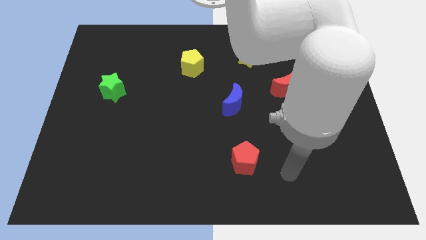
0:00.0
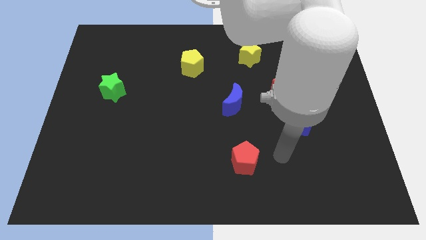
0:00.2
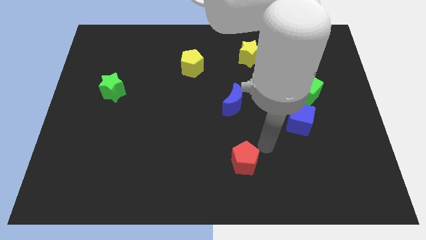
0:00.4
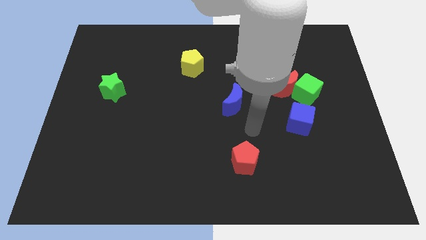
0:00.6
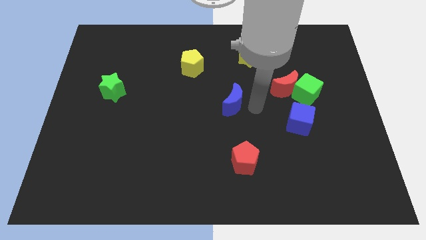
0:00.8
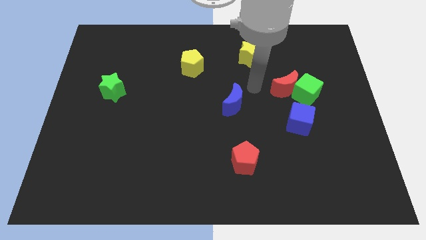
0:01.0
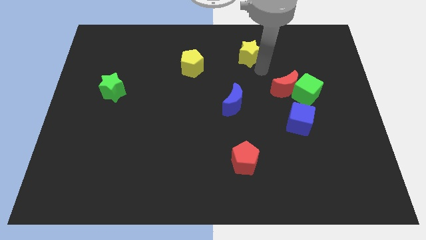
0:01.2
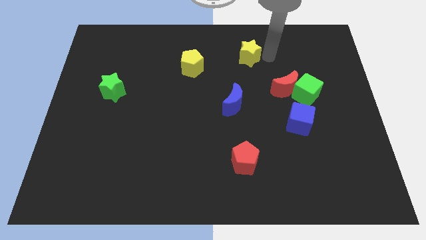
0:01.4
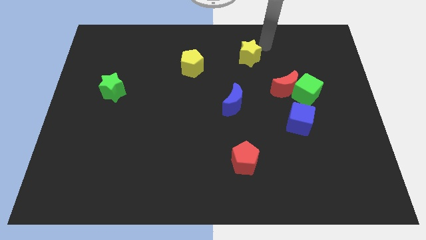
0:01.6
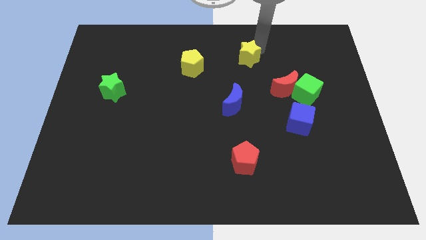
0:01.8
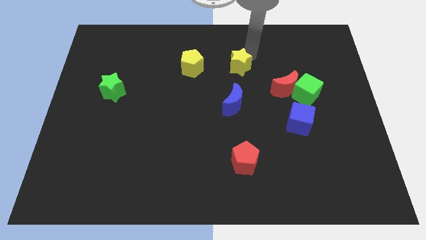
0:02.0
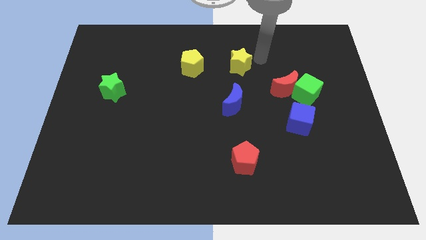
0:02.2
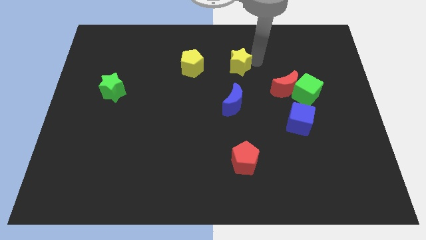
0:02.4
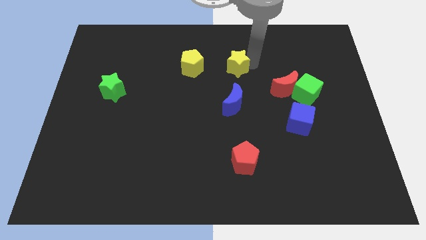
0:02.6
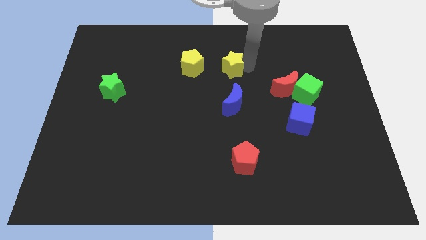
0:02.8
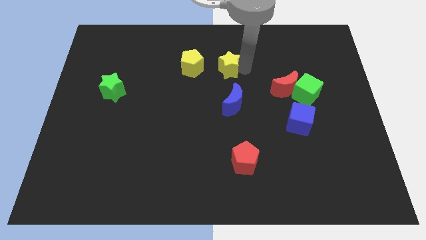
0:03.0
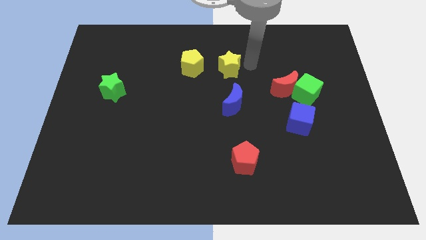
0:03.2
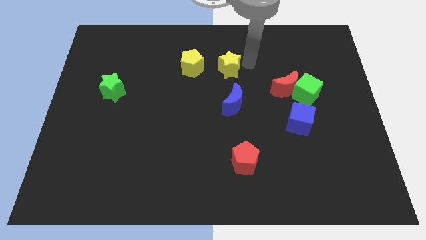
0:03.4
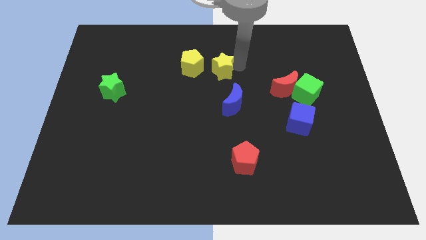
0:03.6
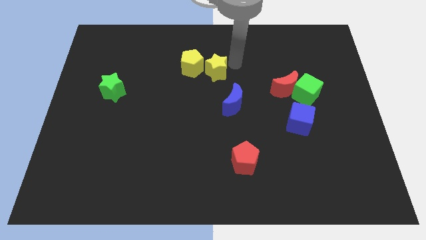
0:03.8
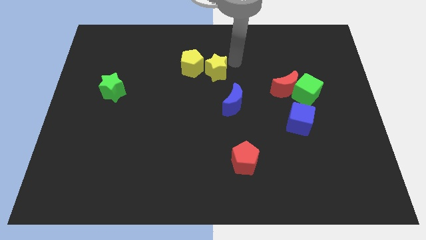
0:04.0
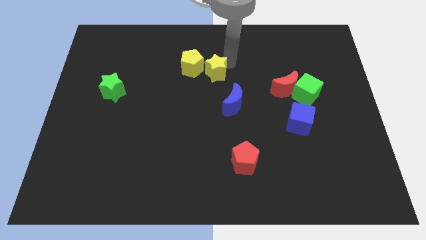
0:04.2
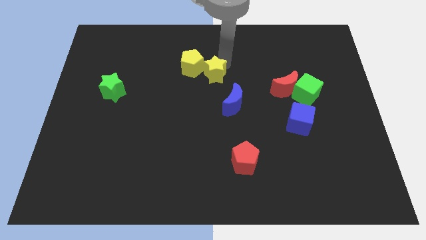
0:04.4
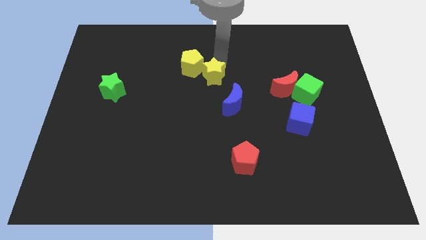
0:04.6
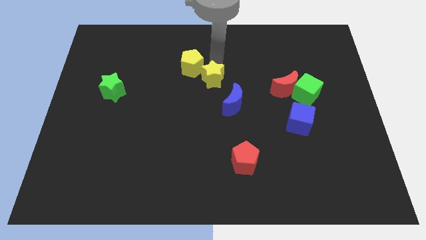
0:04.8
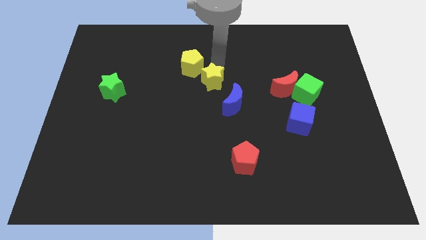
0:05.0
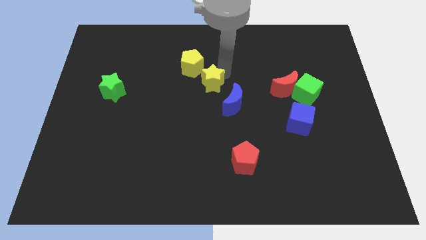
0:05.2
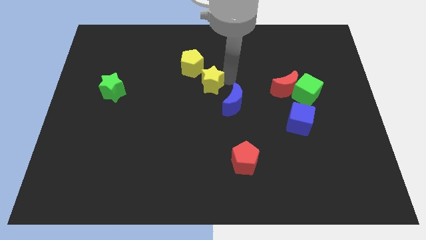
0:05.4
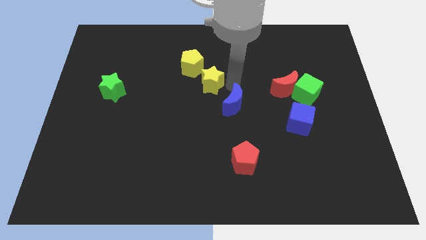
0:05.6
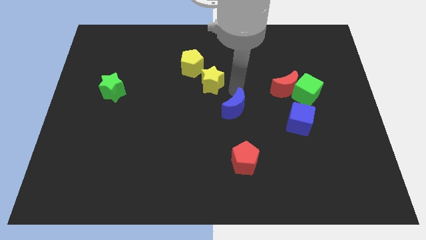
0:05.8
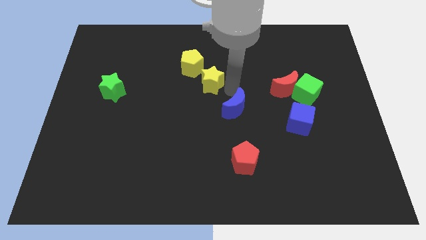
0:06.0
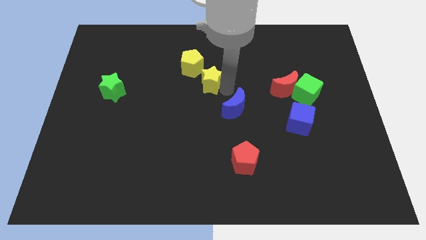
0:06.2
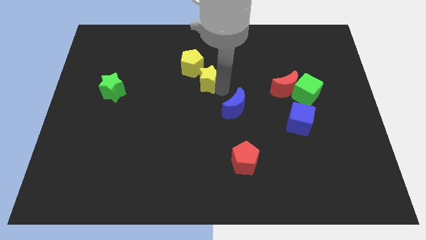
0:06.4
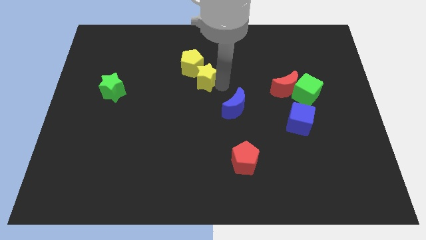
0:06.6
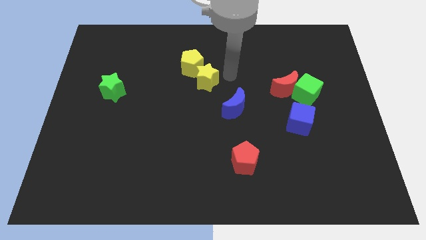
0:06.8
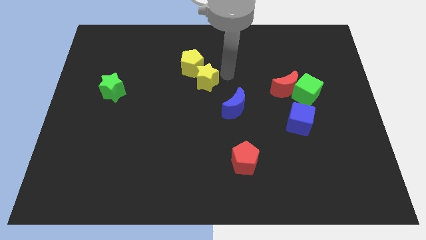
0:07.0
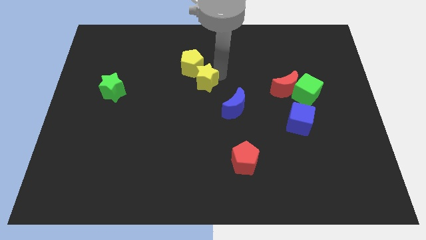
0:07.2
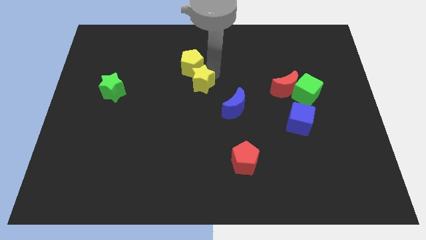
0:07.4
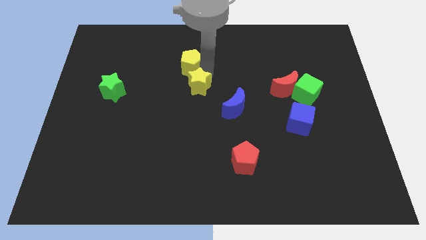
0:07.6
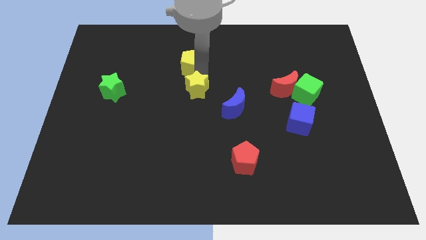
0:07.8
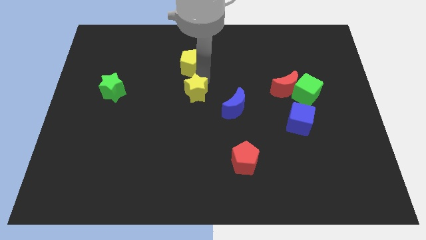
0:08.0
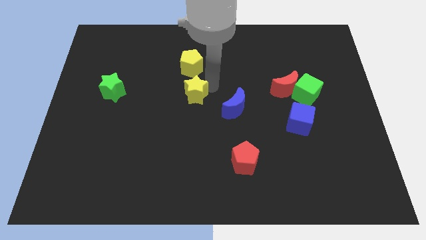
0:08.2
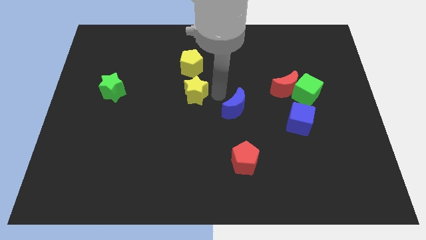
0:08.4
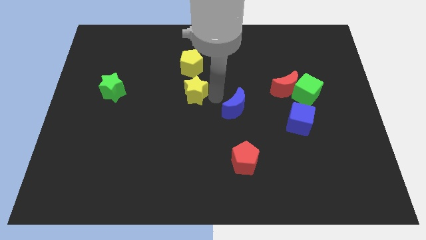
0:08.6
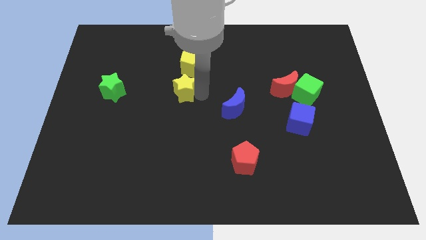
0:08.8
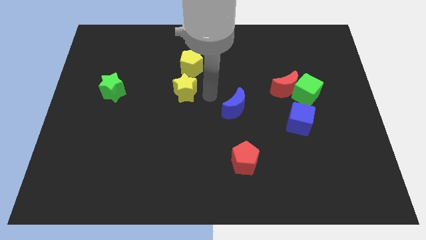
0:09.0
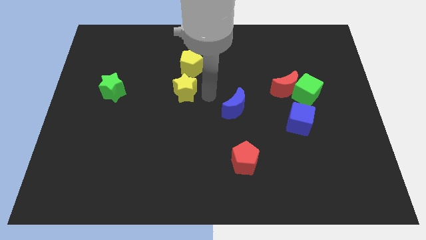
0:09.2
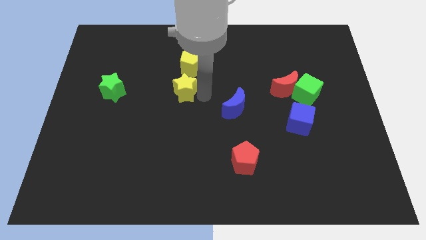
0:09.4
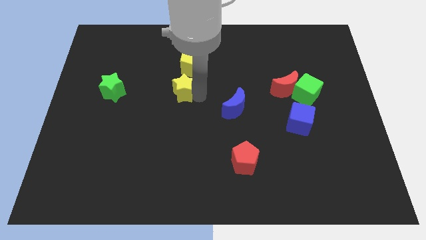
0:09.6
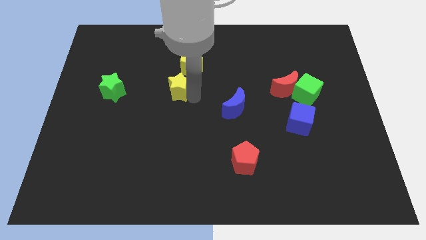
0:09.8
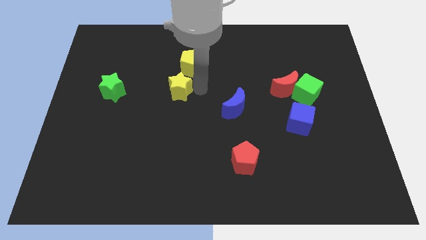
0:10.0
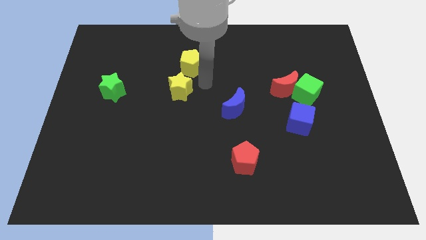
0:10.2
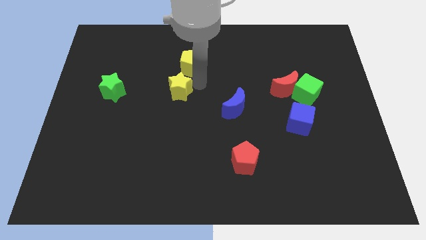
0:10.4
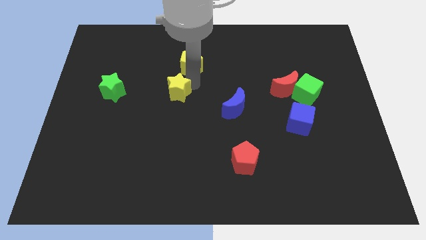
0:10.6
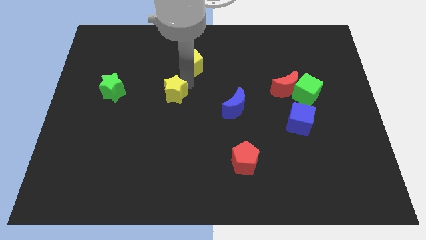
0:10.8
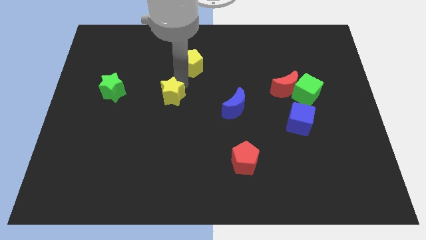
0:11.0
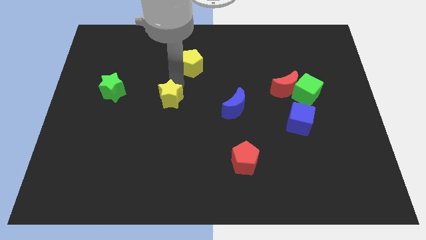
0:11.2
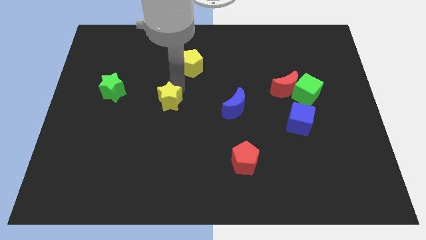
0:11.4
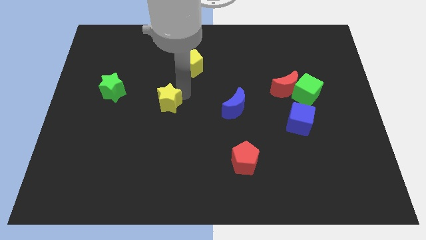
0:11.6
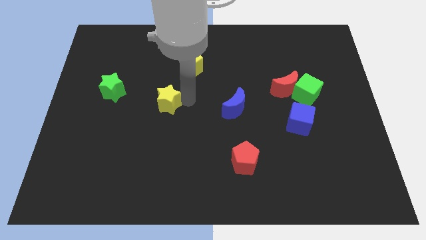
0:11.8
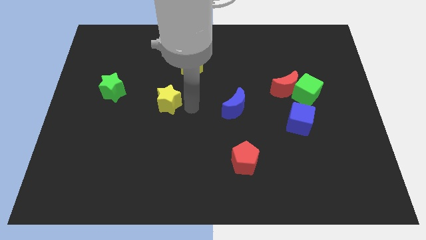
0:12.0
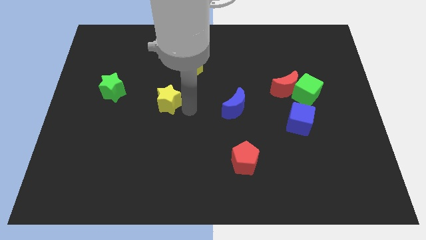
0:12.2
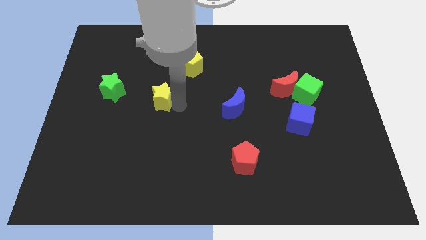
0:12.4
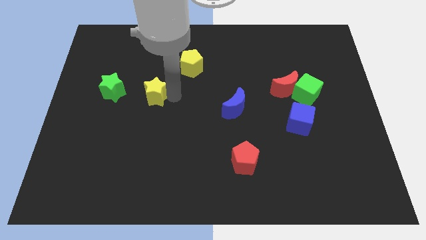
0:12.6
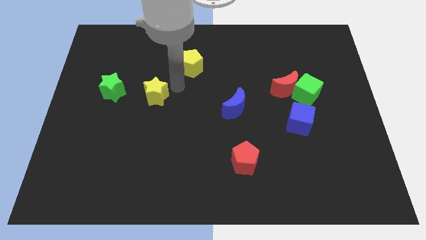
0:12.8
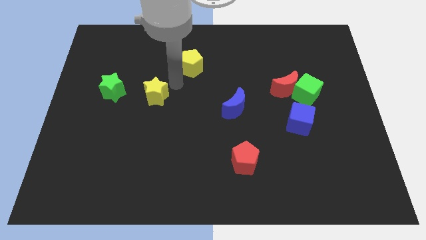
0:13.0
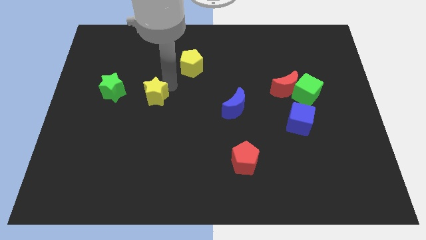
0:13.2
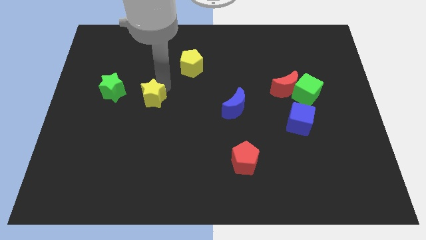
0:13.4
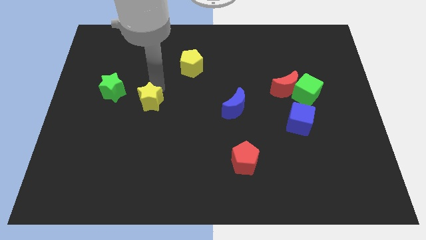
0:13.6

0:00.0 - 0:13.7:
put the yellow star to the bottom right of the green star
